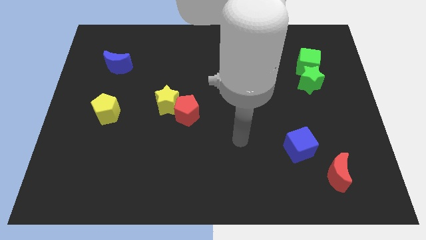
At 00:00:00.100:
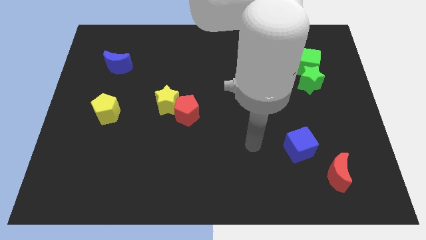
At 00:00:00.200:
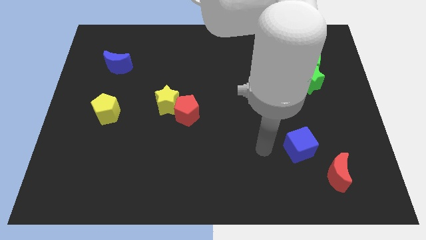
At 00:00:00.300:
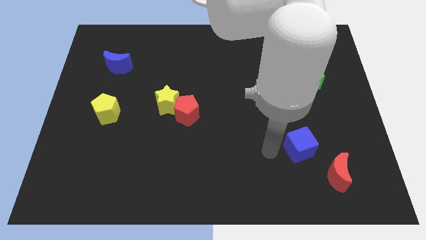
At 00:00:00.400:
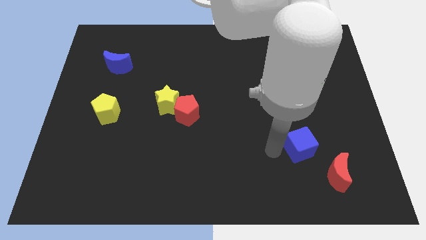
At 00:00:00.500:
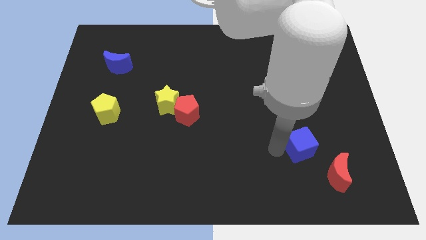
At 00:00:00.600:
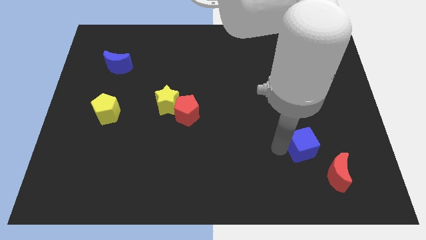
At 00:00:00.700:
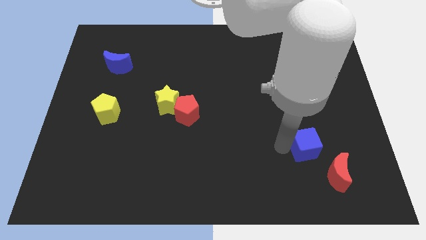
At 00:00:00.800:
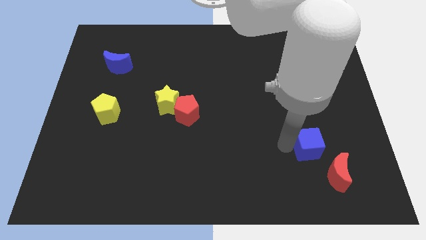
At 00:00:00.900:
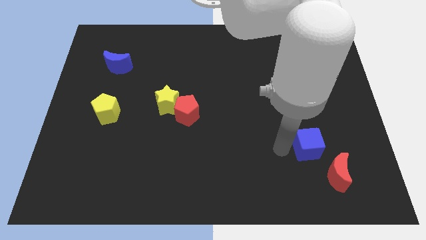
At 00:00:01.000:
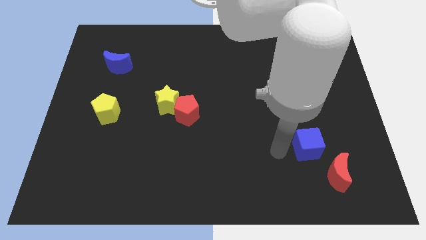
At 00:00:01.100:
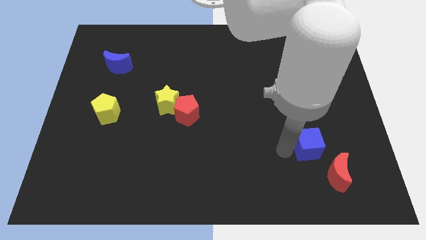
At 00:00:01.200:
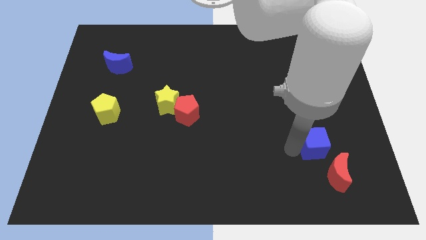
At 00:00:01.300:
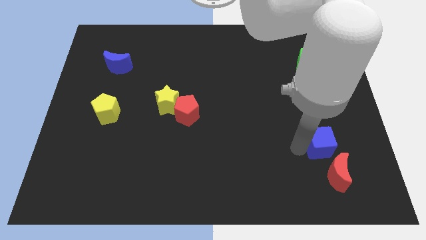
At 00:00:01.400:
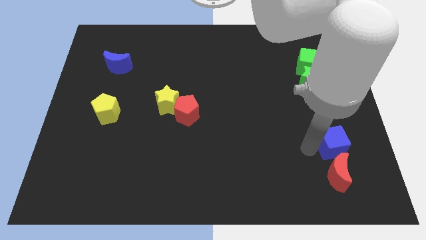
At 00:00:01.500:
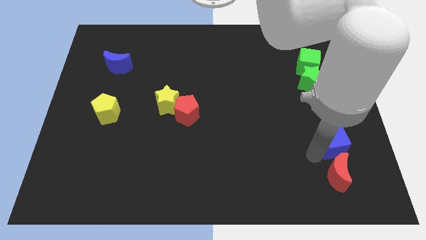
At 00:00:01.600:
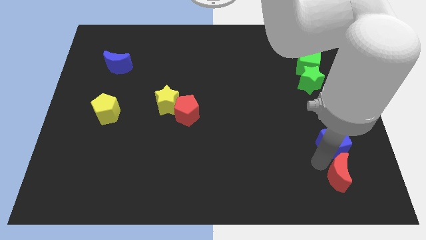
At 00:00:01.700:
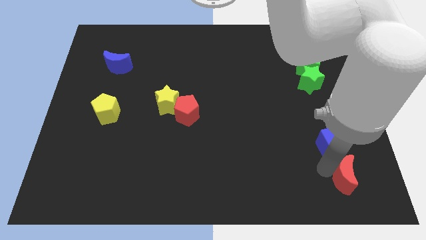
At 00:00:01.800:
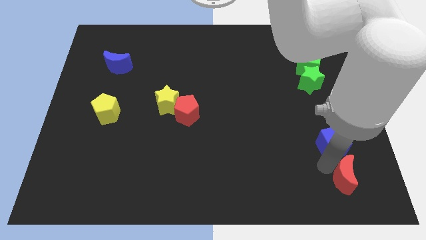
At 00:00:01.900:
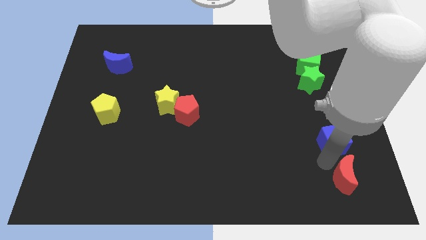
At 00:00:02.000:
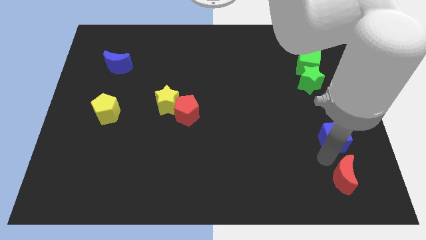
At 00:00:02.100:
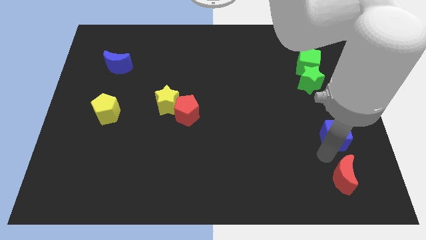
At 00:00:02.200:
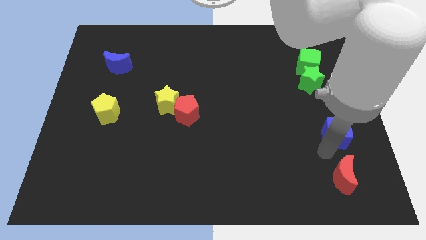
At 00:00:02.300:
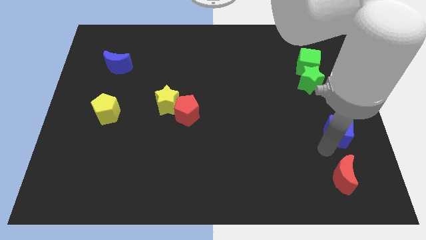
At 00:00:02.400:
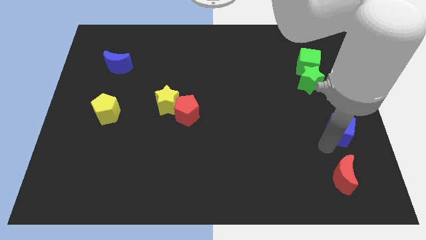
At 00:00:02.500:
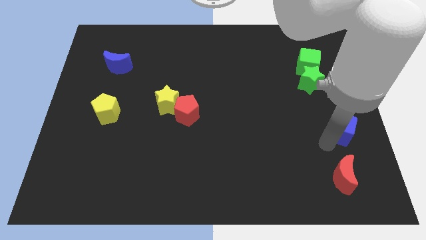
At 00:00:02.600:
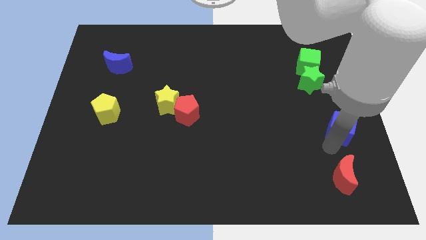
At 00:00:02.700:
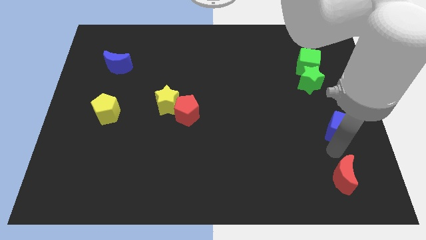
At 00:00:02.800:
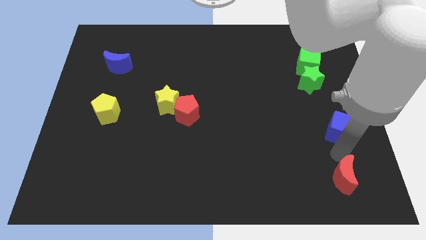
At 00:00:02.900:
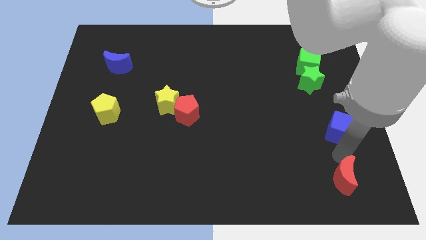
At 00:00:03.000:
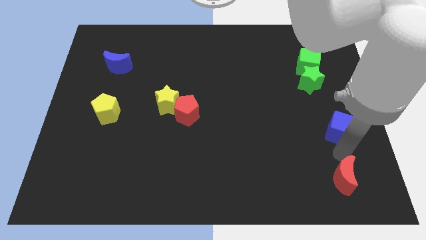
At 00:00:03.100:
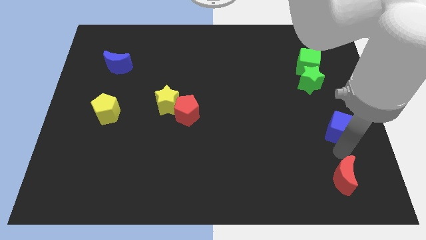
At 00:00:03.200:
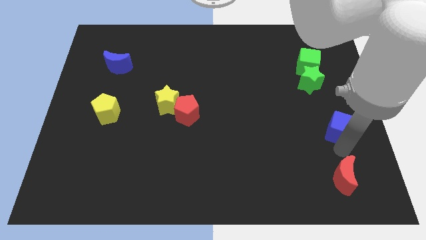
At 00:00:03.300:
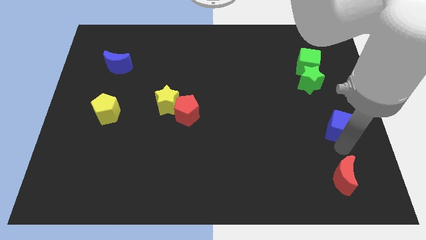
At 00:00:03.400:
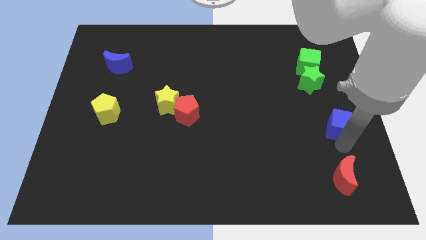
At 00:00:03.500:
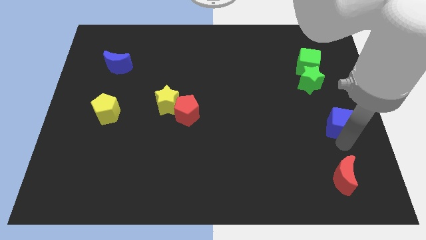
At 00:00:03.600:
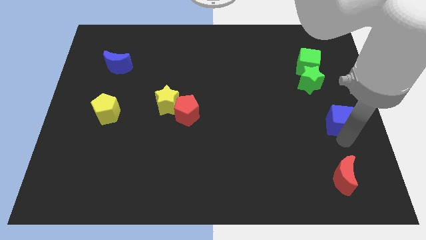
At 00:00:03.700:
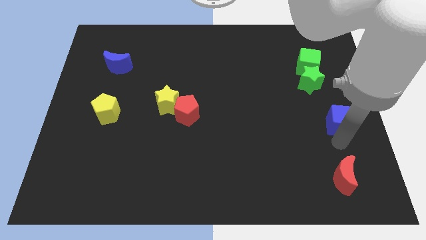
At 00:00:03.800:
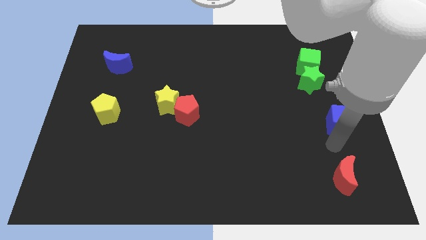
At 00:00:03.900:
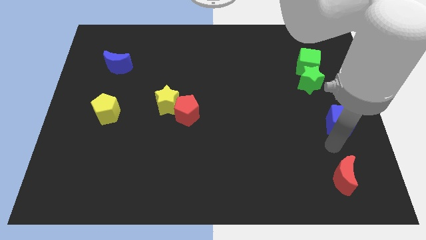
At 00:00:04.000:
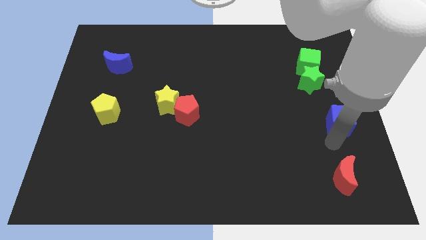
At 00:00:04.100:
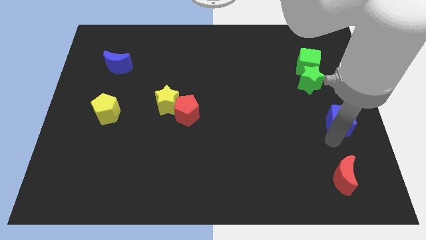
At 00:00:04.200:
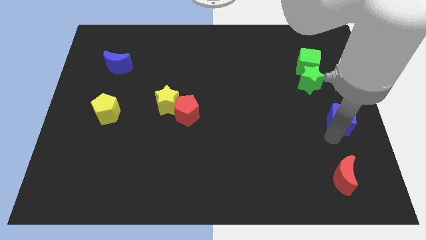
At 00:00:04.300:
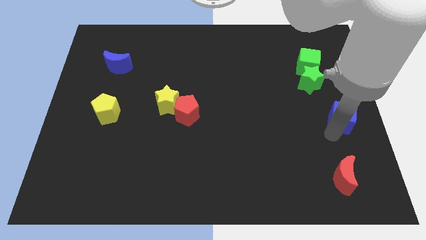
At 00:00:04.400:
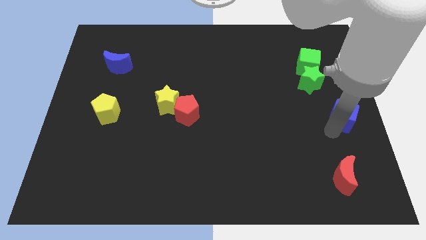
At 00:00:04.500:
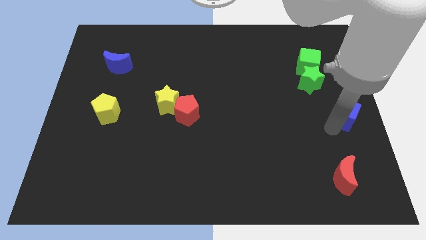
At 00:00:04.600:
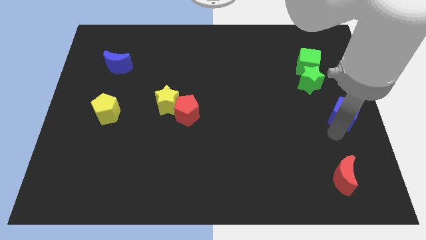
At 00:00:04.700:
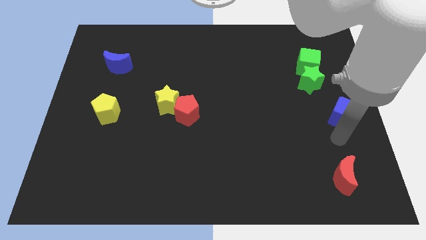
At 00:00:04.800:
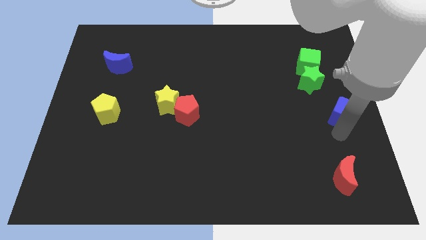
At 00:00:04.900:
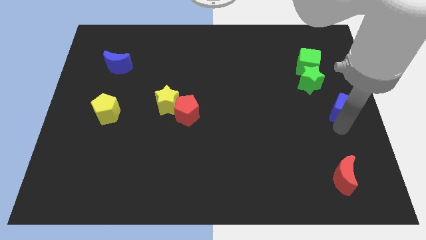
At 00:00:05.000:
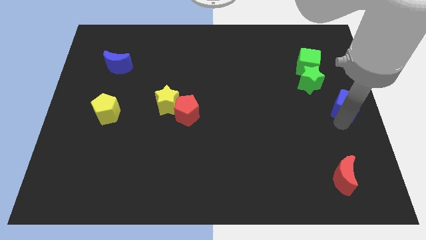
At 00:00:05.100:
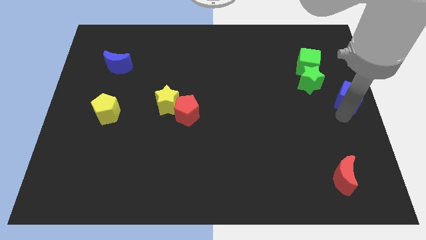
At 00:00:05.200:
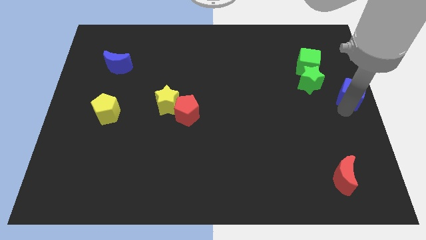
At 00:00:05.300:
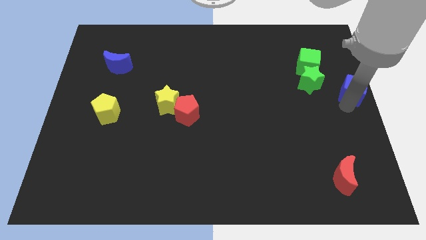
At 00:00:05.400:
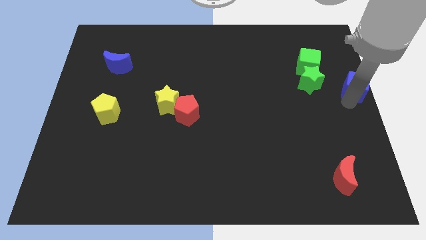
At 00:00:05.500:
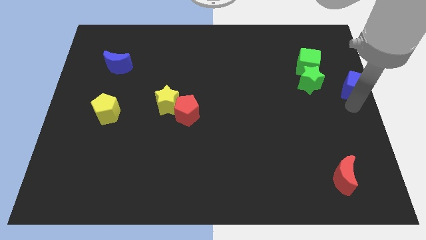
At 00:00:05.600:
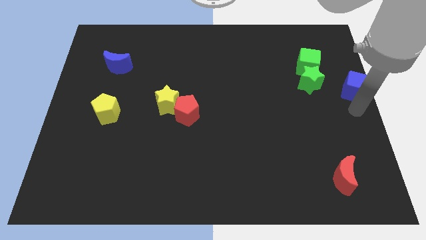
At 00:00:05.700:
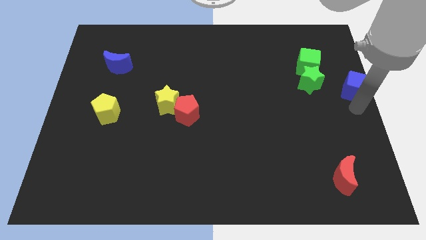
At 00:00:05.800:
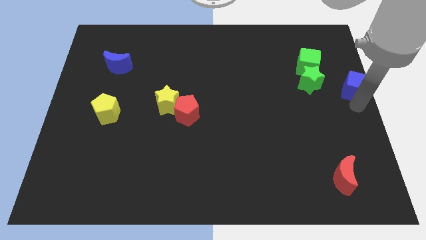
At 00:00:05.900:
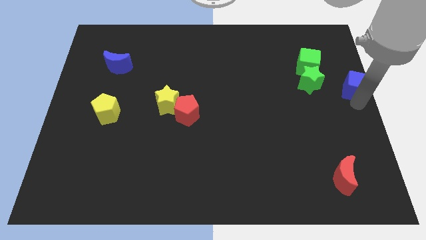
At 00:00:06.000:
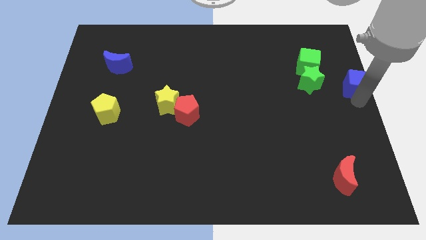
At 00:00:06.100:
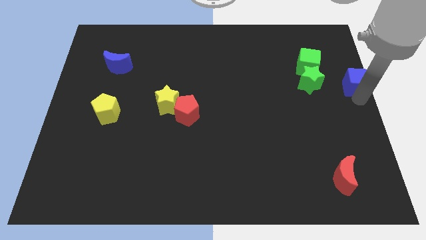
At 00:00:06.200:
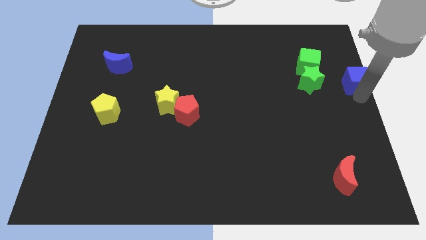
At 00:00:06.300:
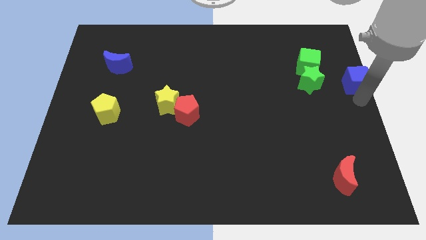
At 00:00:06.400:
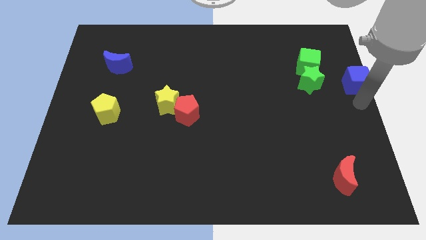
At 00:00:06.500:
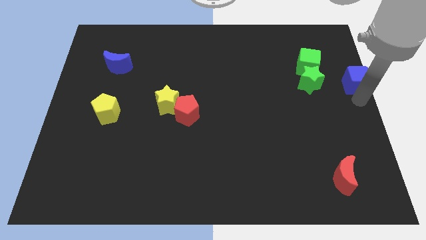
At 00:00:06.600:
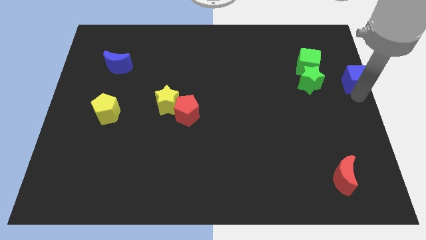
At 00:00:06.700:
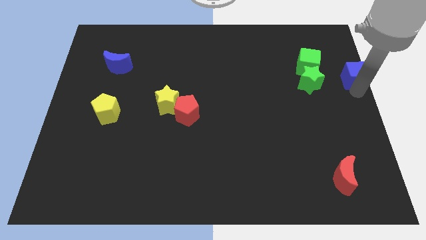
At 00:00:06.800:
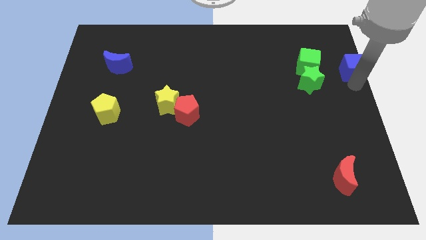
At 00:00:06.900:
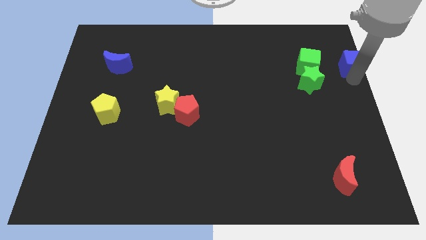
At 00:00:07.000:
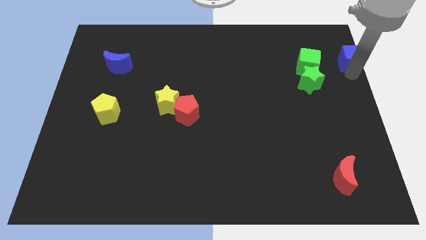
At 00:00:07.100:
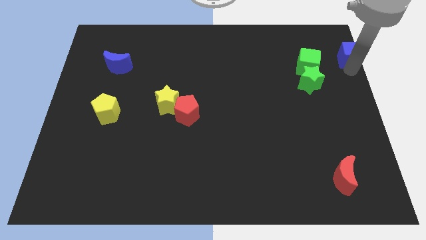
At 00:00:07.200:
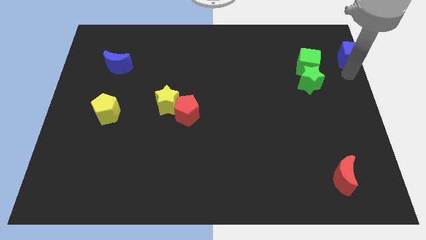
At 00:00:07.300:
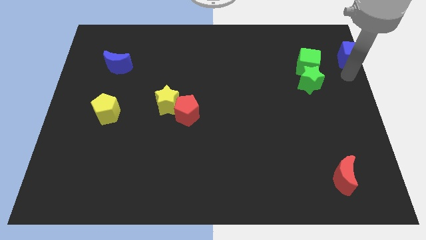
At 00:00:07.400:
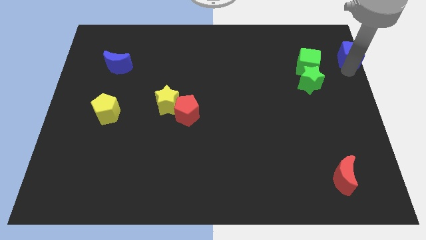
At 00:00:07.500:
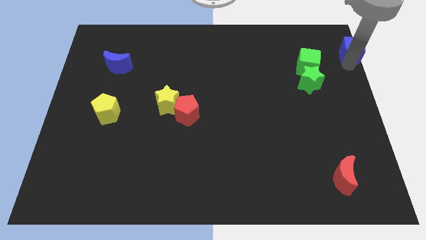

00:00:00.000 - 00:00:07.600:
put the blue cube to the top right
